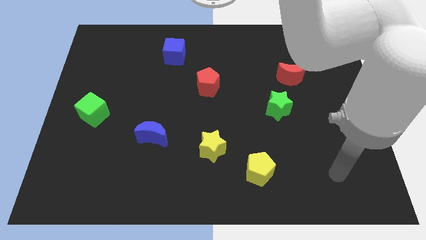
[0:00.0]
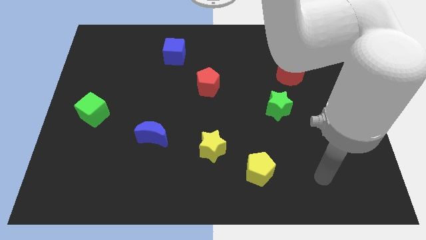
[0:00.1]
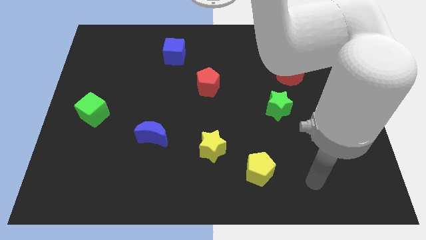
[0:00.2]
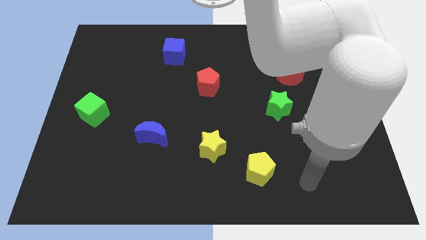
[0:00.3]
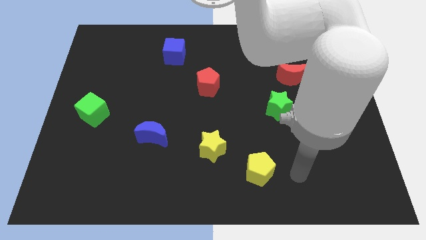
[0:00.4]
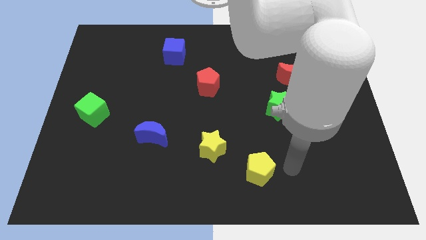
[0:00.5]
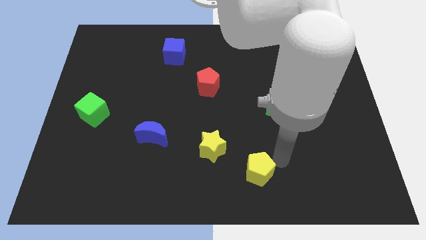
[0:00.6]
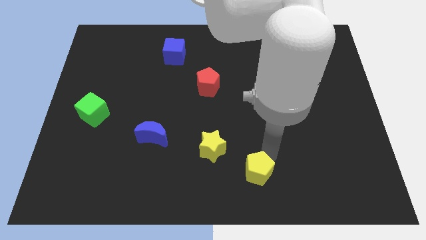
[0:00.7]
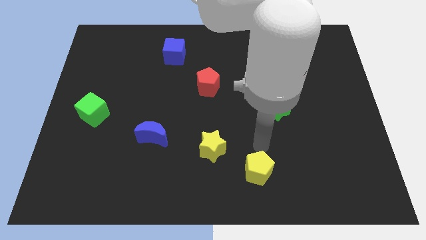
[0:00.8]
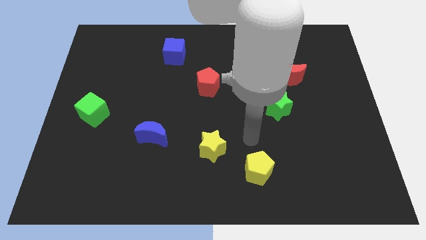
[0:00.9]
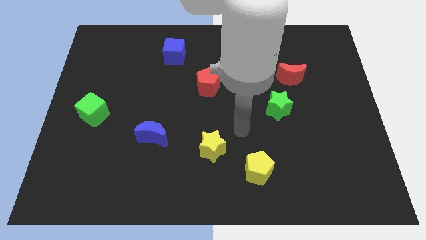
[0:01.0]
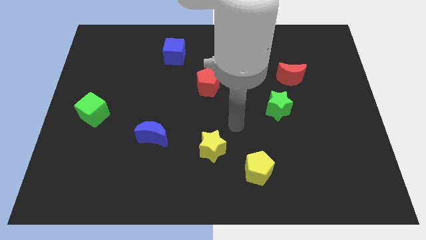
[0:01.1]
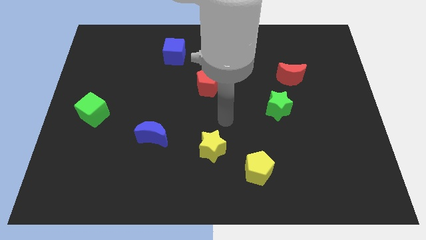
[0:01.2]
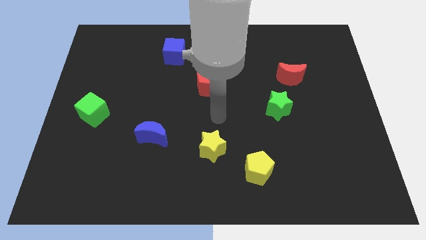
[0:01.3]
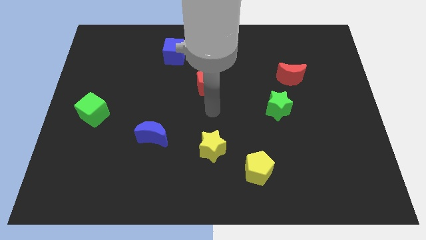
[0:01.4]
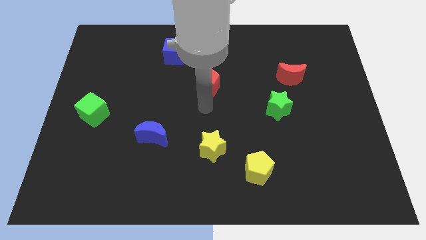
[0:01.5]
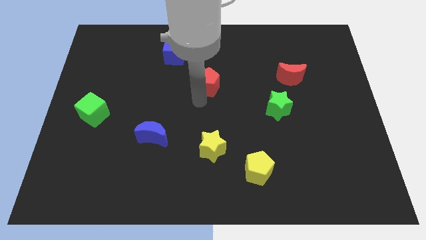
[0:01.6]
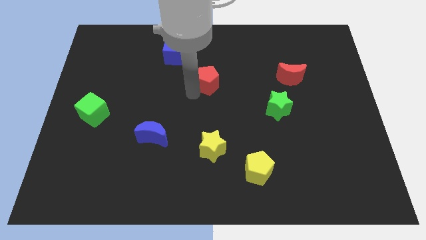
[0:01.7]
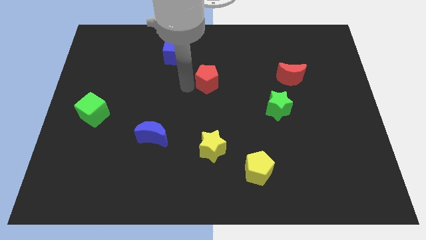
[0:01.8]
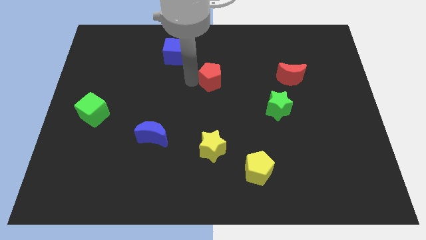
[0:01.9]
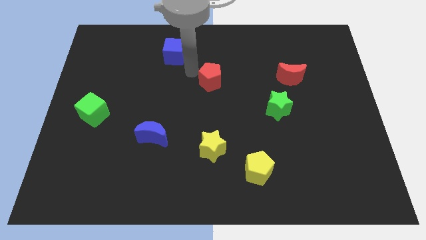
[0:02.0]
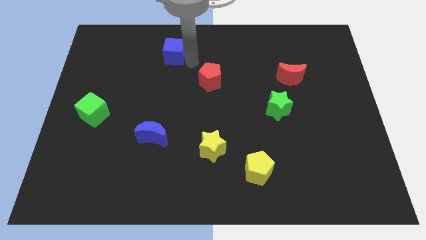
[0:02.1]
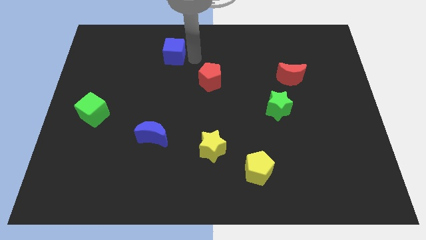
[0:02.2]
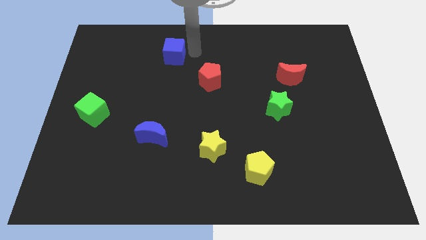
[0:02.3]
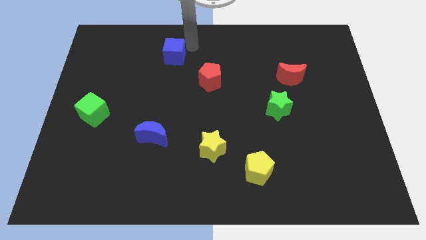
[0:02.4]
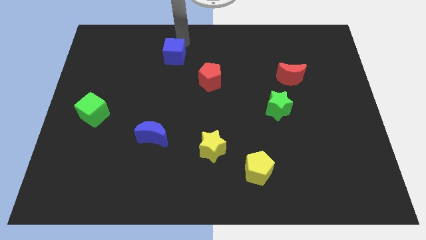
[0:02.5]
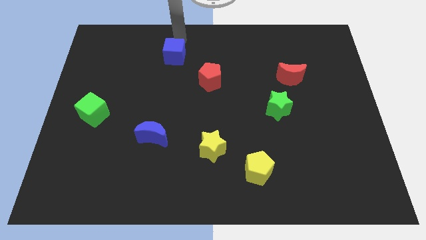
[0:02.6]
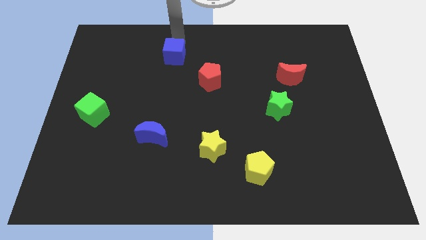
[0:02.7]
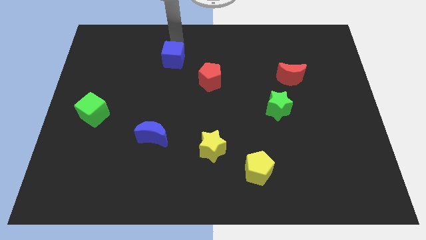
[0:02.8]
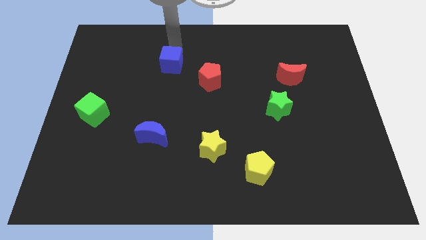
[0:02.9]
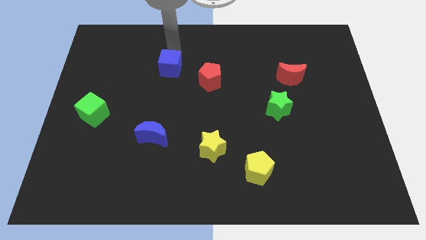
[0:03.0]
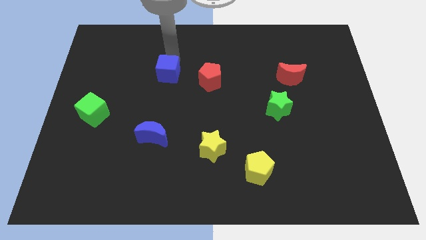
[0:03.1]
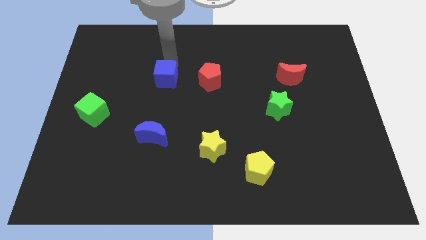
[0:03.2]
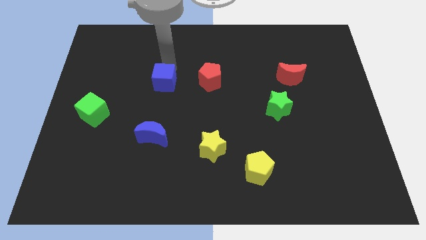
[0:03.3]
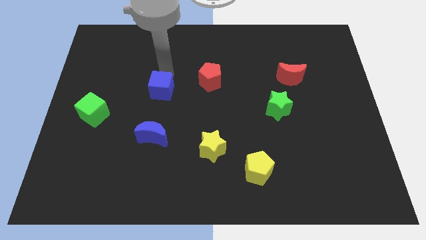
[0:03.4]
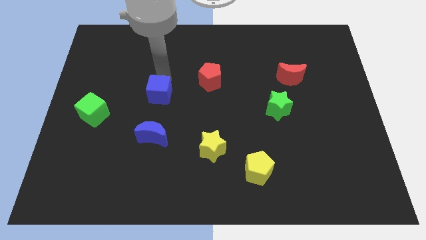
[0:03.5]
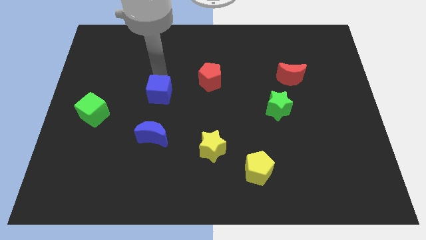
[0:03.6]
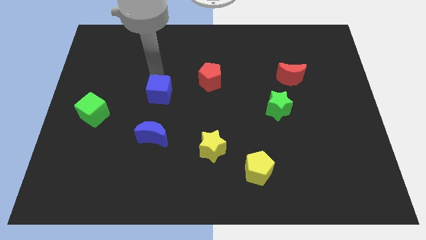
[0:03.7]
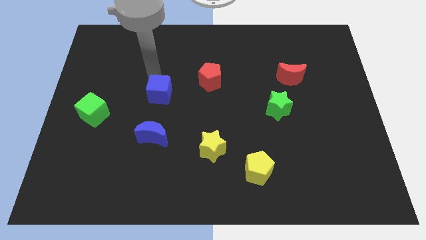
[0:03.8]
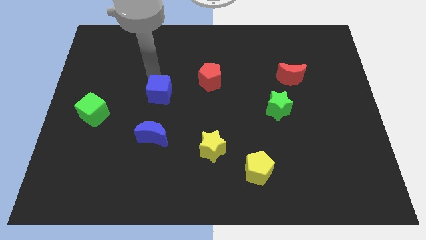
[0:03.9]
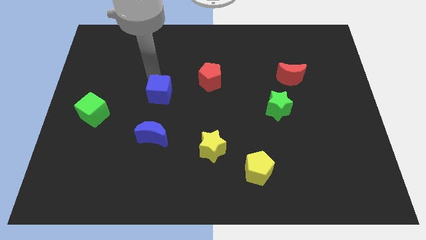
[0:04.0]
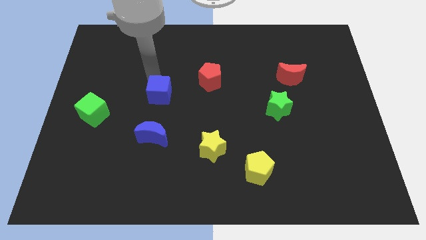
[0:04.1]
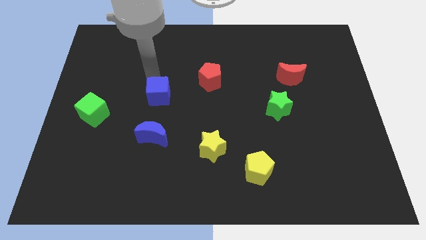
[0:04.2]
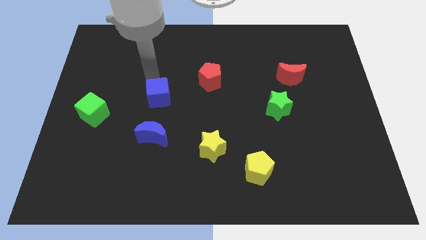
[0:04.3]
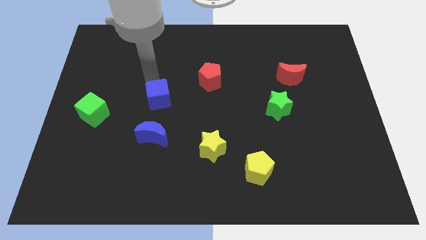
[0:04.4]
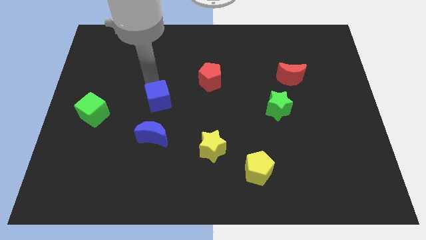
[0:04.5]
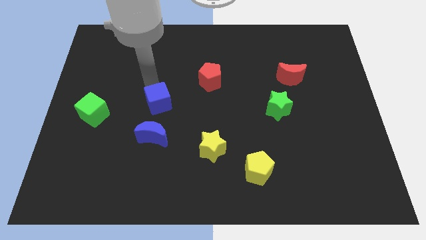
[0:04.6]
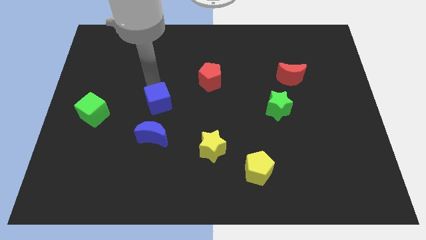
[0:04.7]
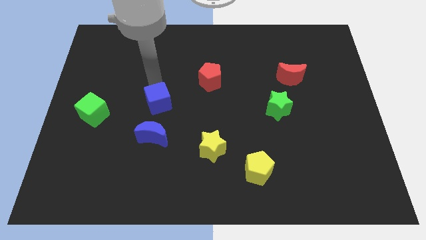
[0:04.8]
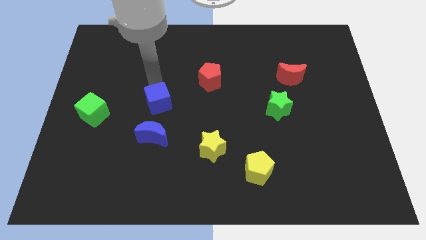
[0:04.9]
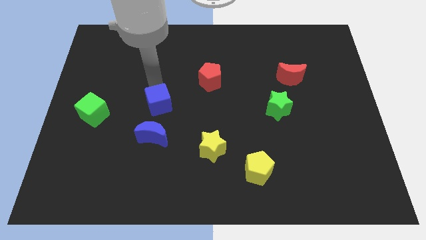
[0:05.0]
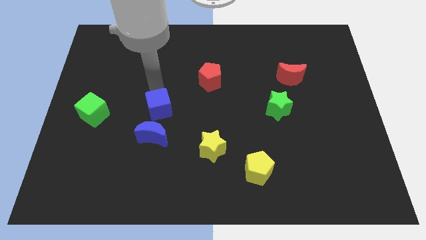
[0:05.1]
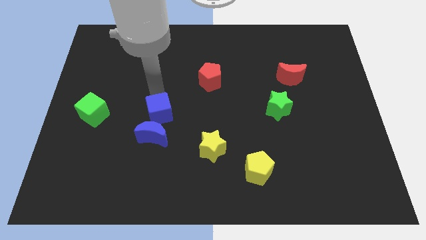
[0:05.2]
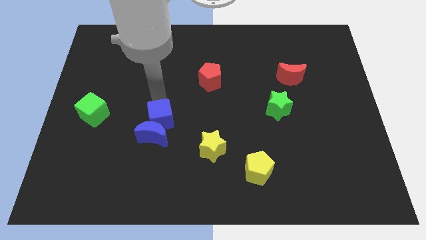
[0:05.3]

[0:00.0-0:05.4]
put the blue cube to the blue moon

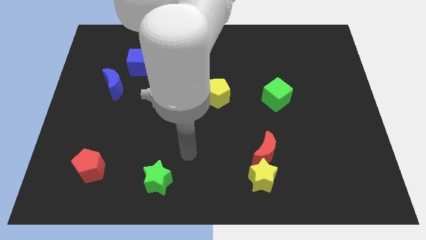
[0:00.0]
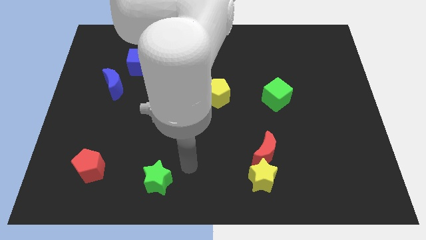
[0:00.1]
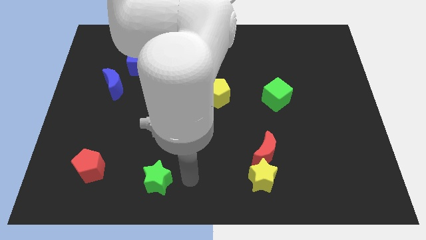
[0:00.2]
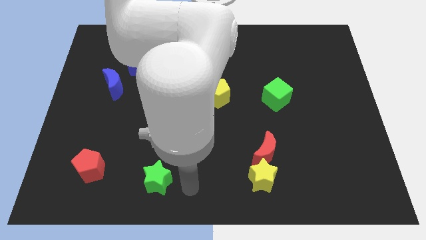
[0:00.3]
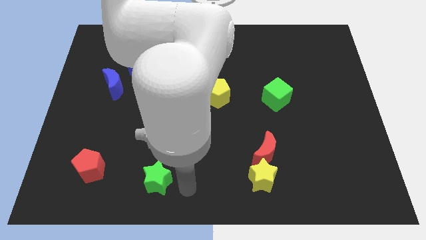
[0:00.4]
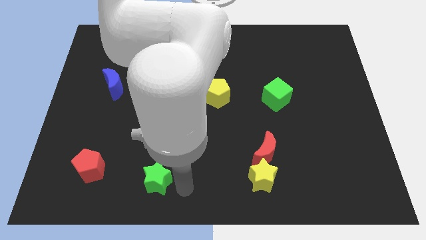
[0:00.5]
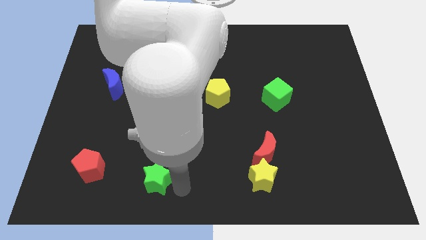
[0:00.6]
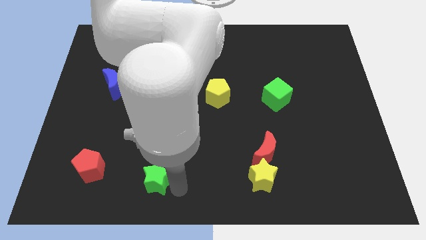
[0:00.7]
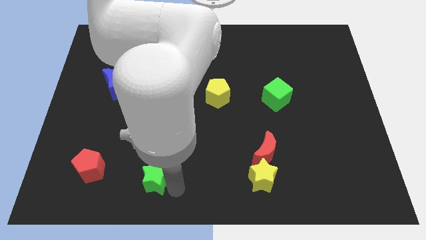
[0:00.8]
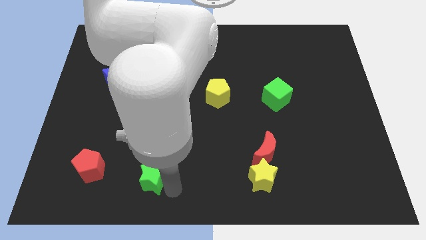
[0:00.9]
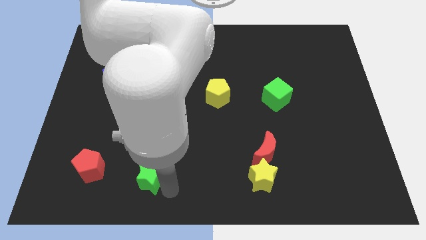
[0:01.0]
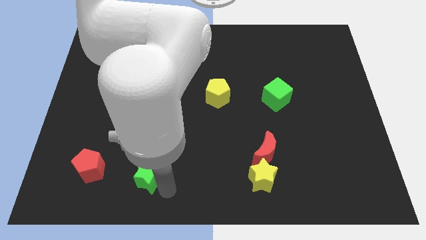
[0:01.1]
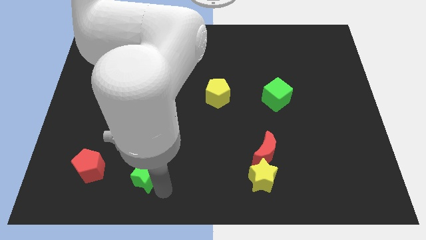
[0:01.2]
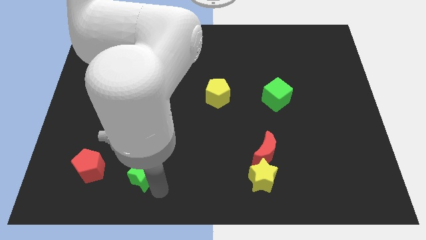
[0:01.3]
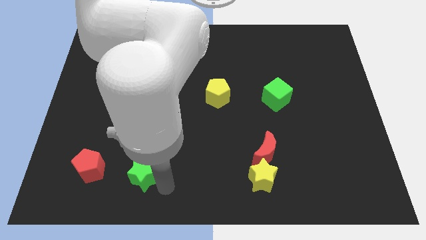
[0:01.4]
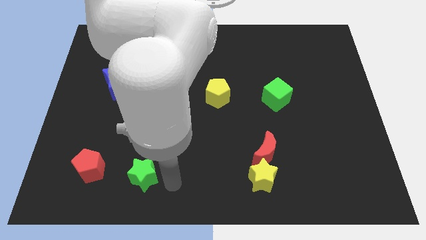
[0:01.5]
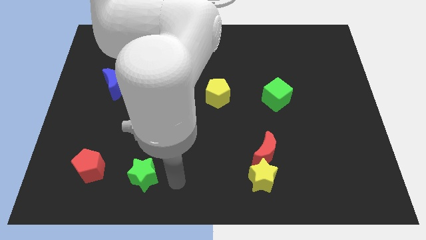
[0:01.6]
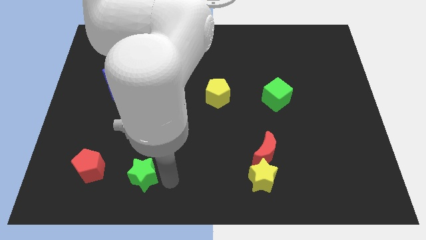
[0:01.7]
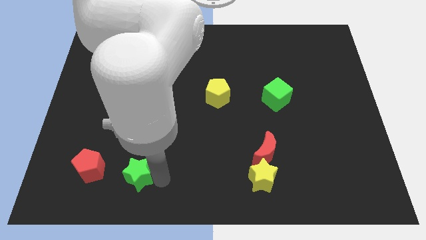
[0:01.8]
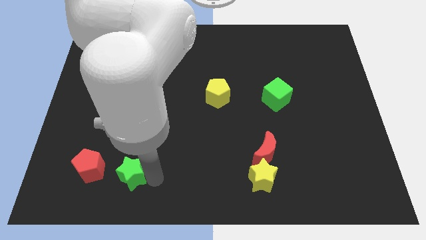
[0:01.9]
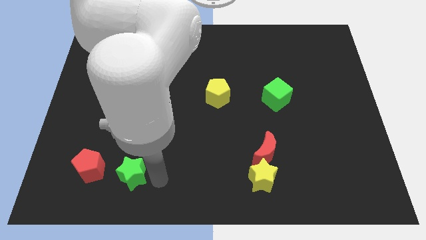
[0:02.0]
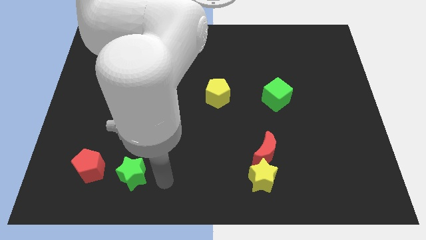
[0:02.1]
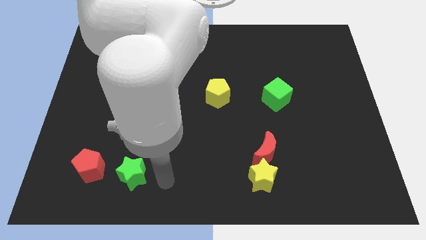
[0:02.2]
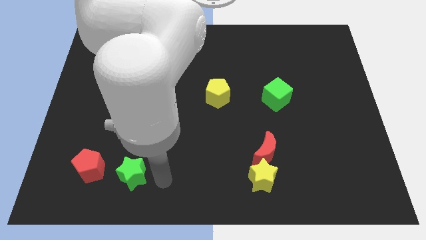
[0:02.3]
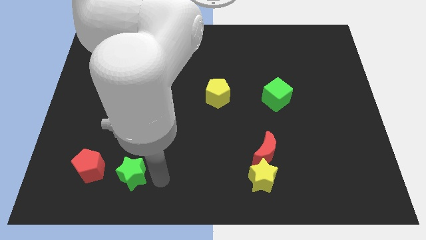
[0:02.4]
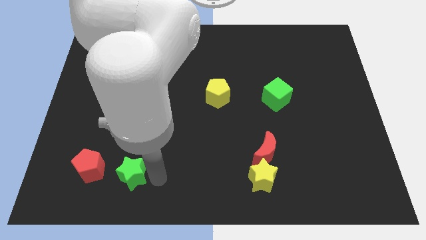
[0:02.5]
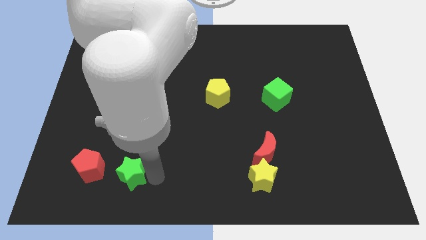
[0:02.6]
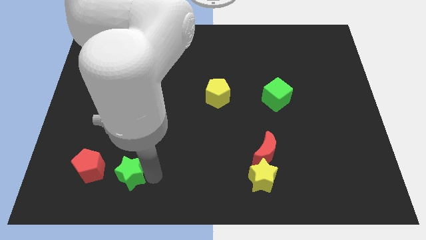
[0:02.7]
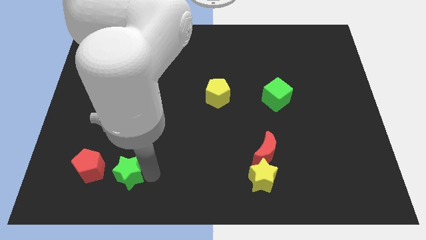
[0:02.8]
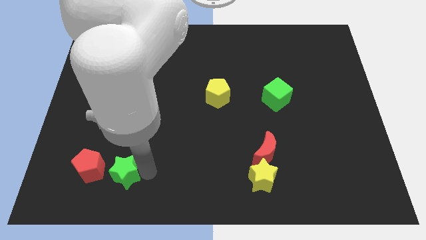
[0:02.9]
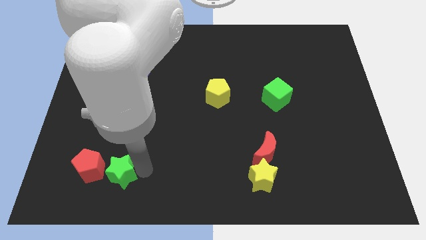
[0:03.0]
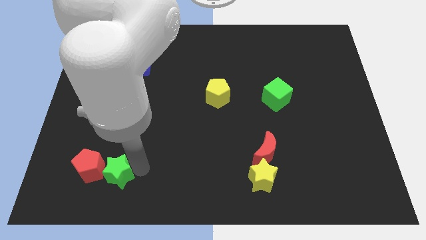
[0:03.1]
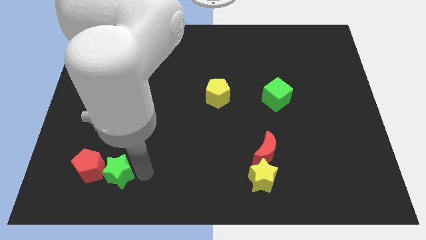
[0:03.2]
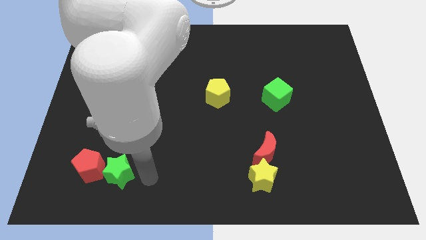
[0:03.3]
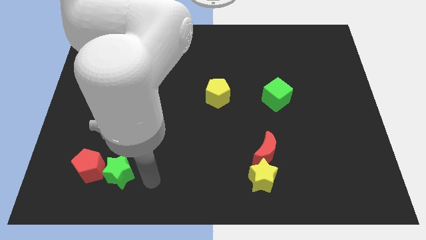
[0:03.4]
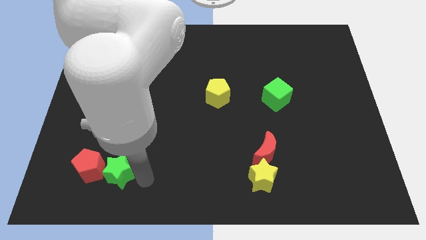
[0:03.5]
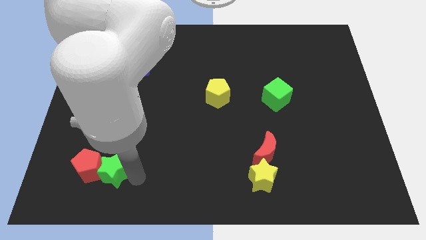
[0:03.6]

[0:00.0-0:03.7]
slide the green star next to the red pentagon
